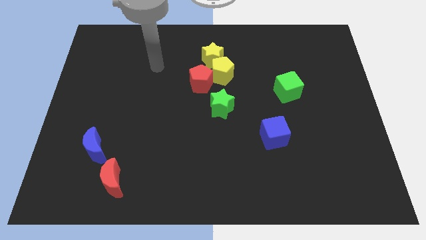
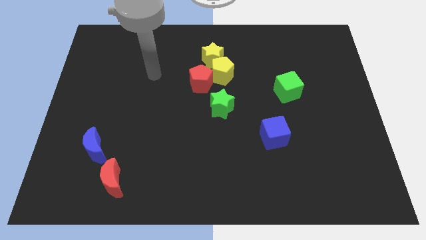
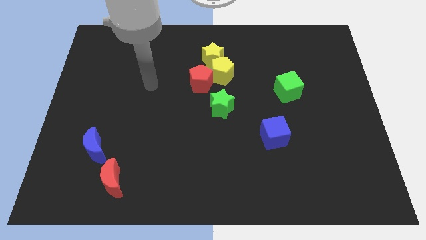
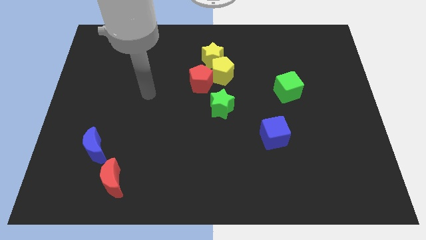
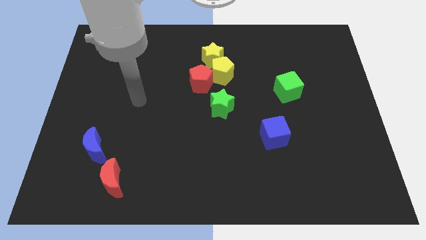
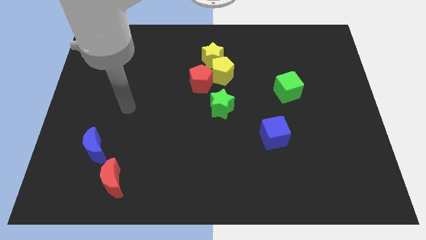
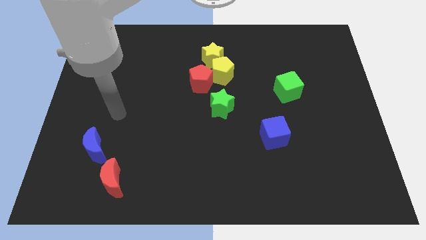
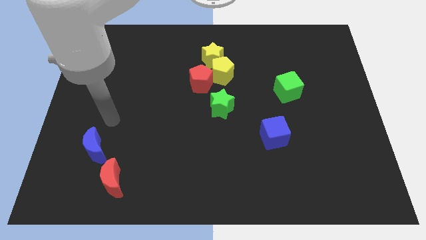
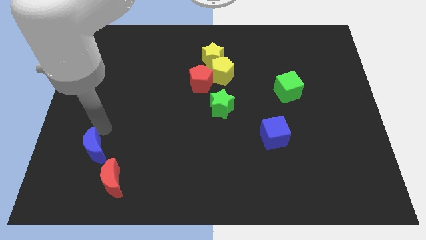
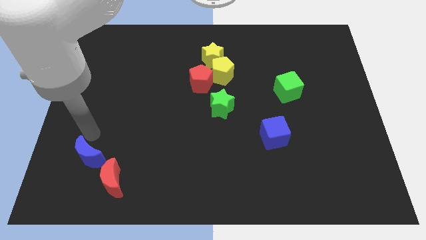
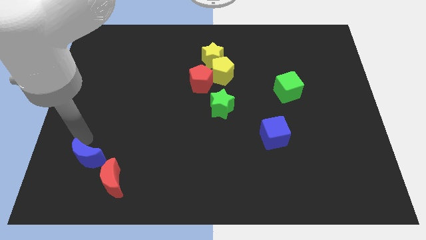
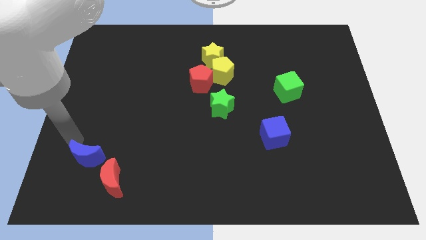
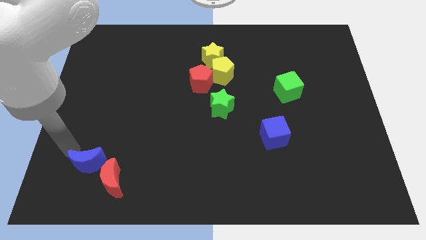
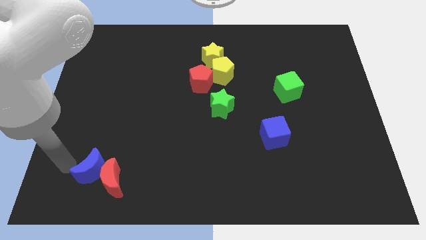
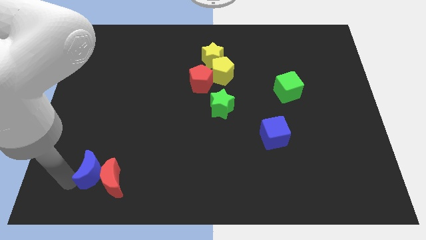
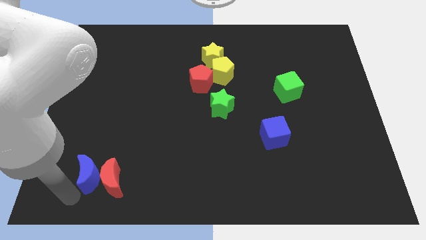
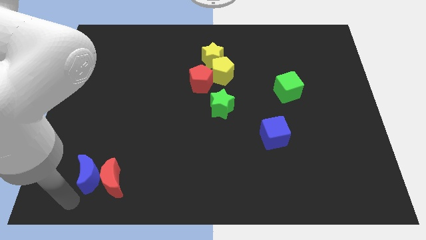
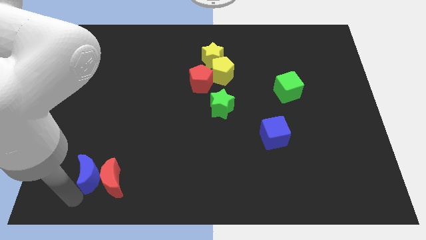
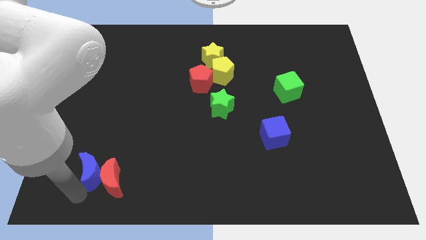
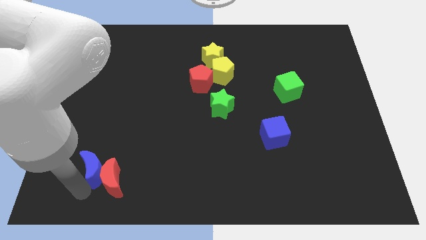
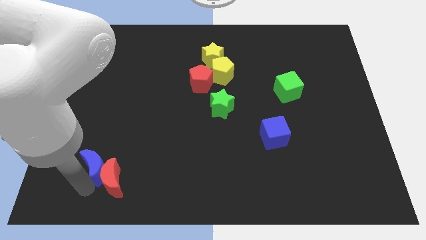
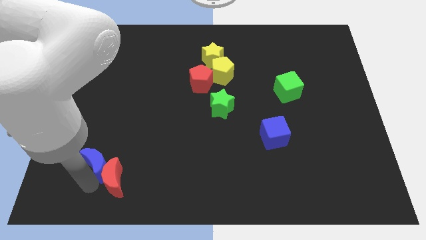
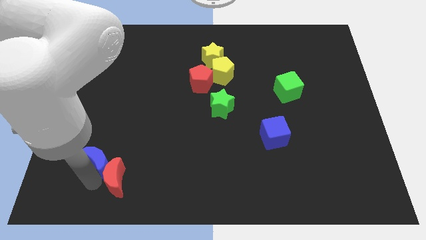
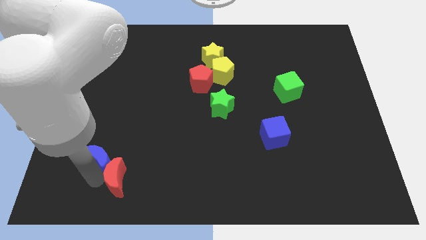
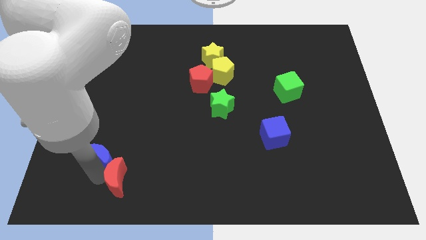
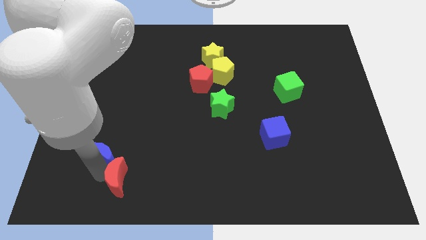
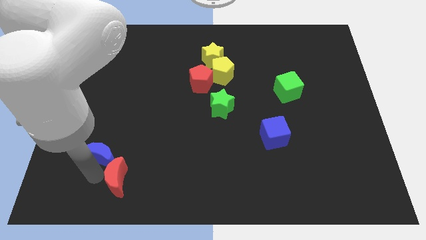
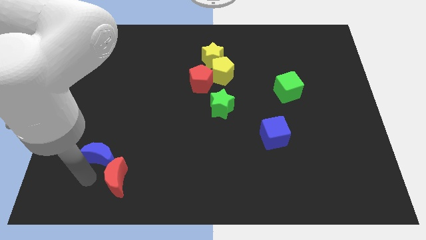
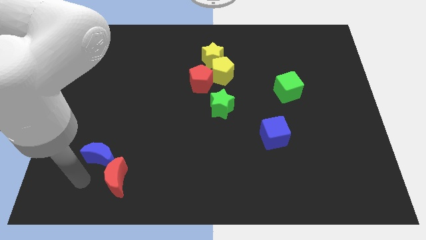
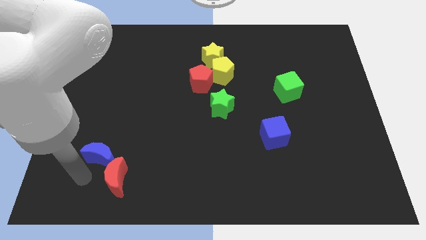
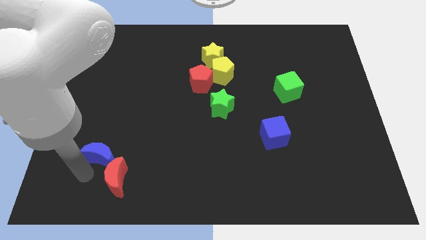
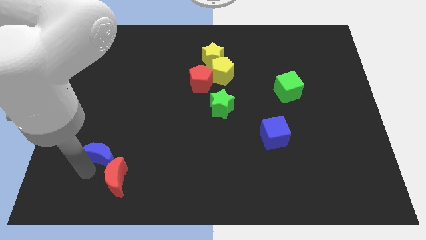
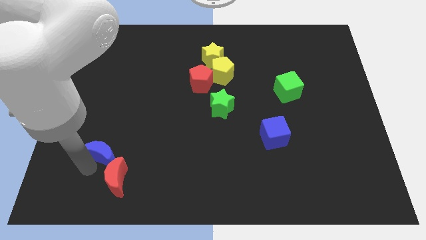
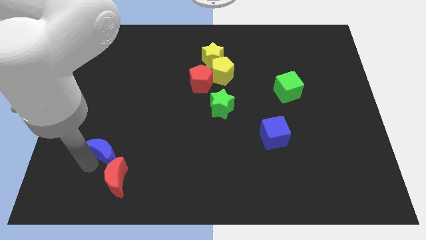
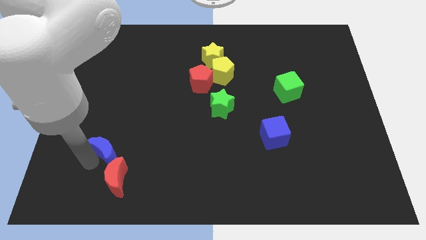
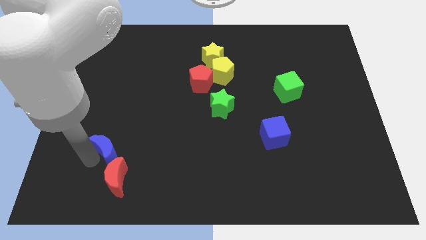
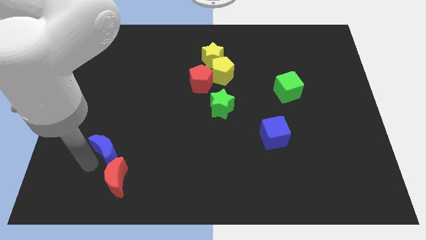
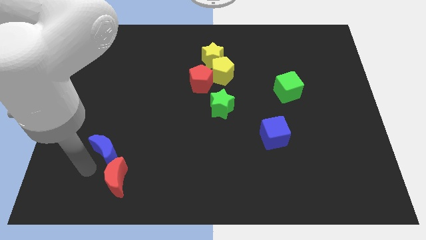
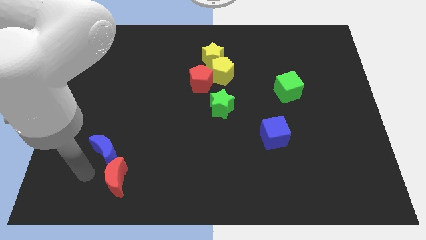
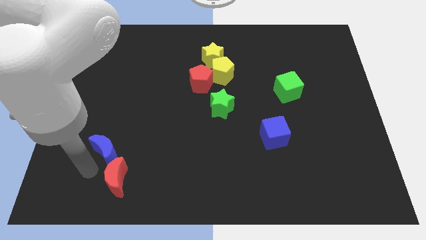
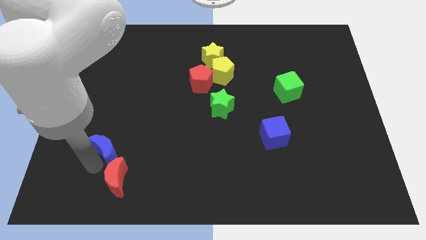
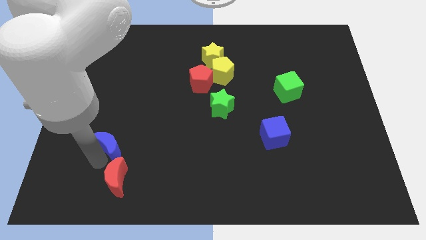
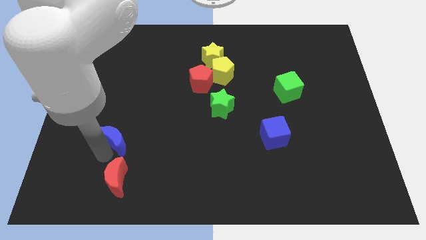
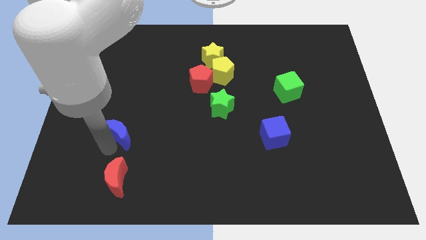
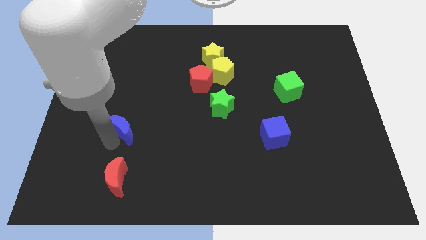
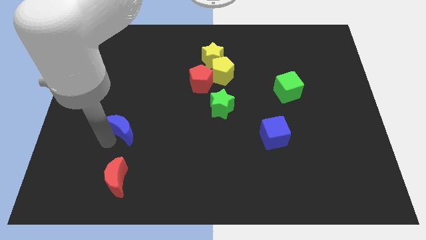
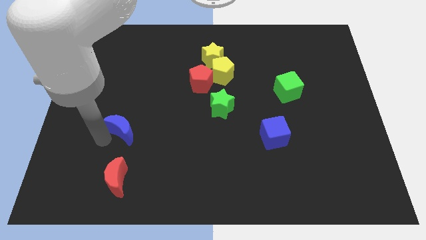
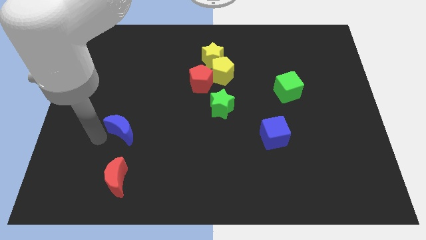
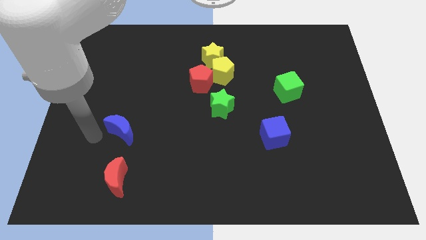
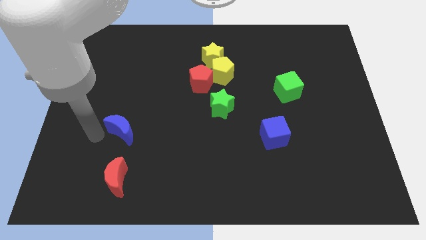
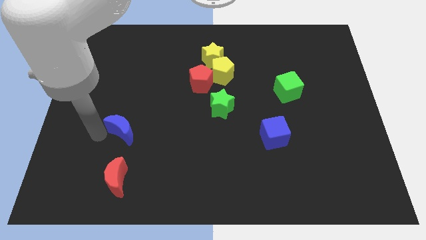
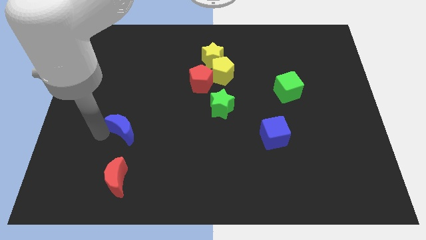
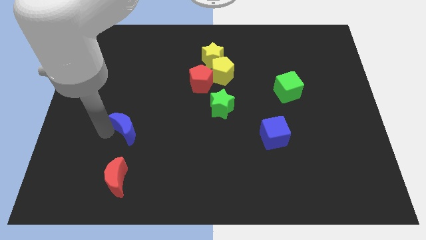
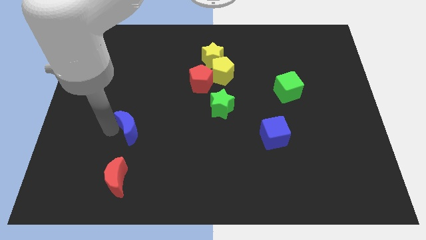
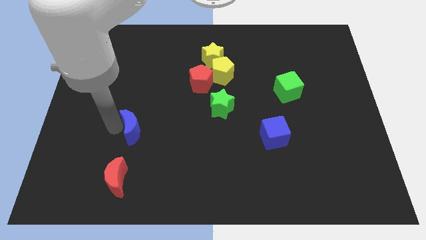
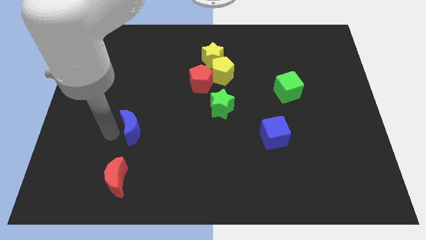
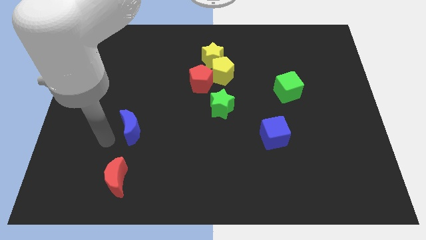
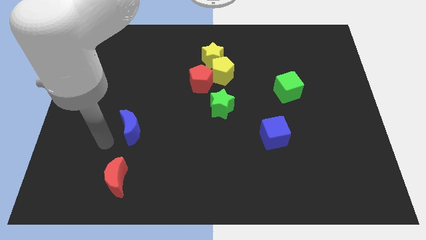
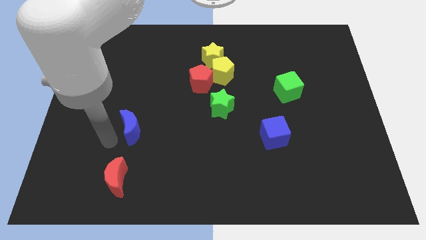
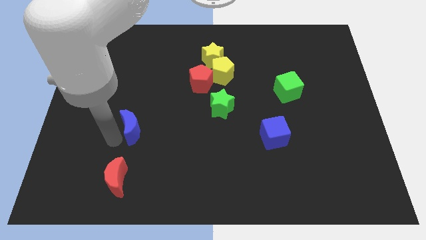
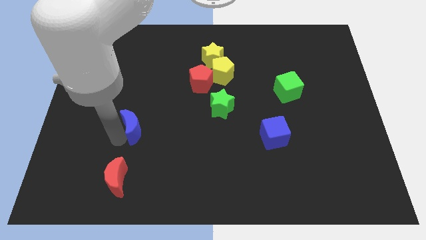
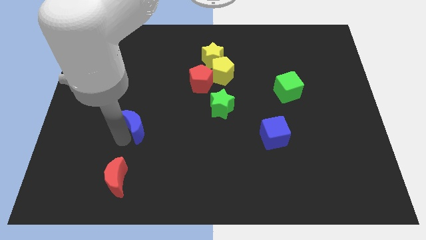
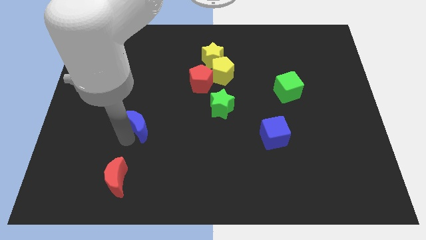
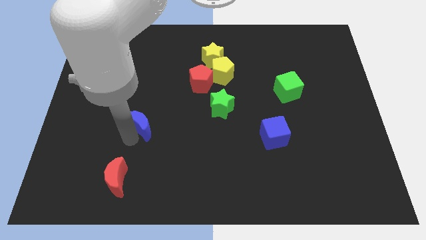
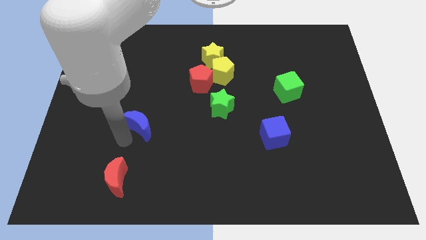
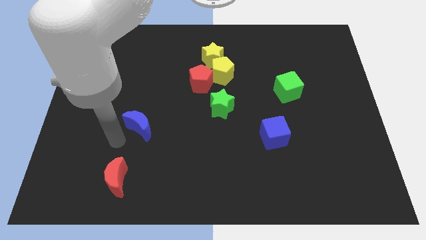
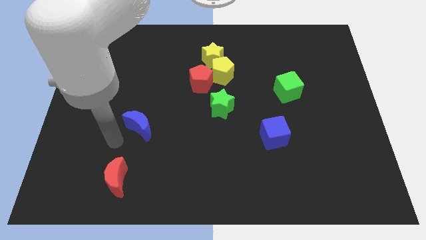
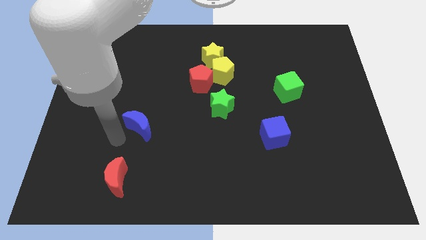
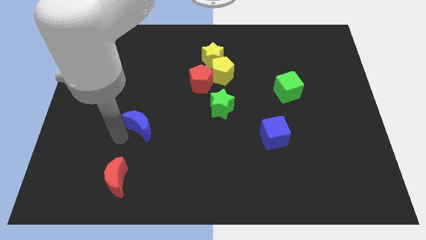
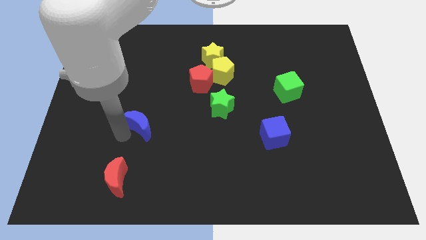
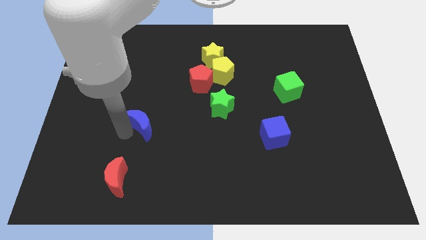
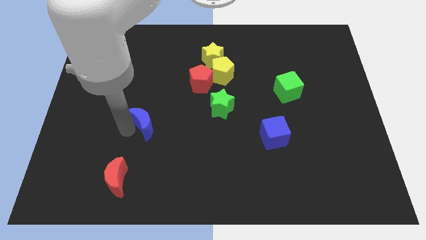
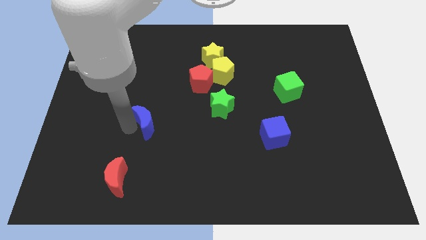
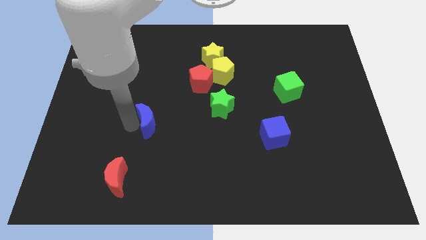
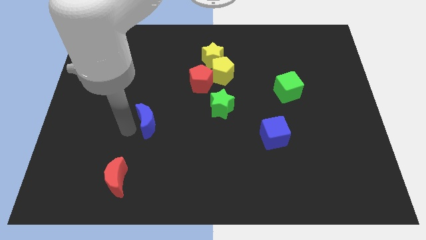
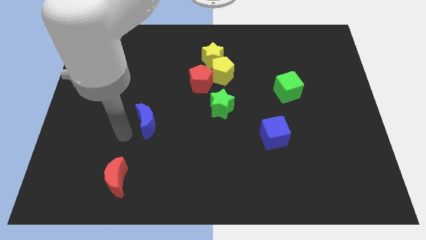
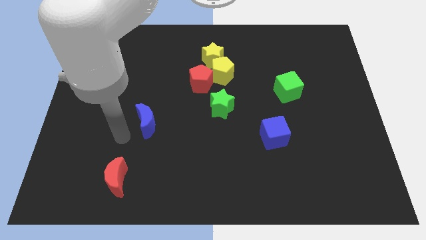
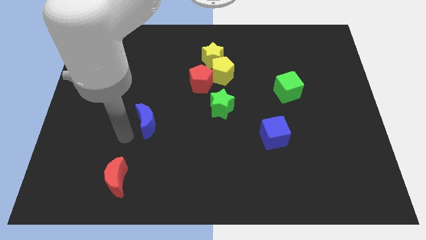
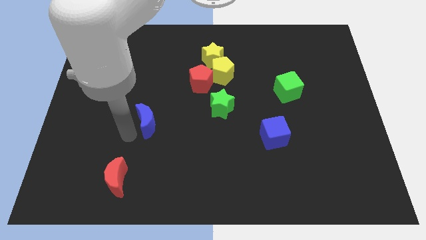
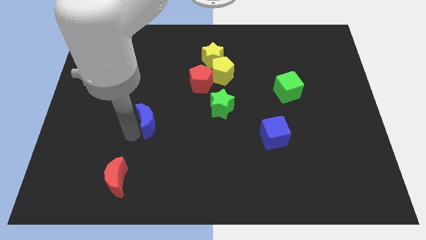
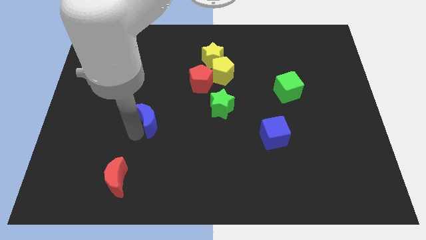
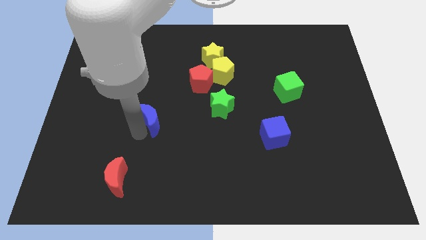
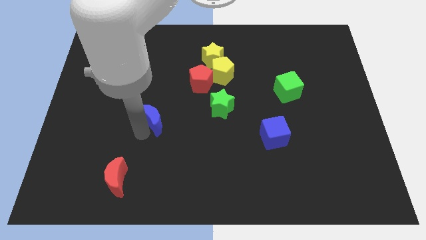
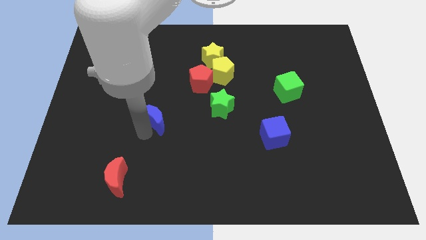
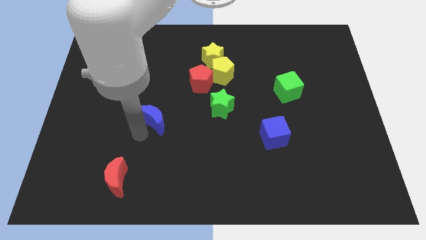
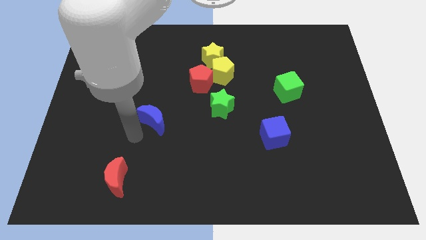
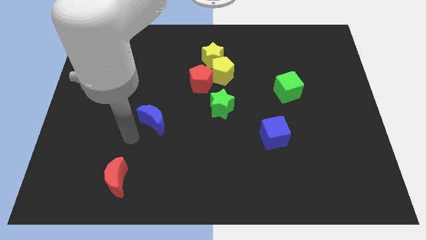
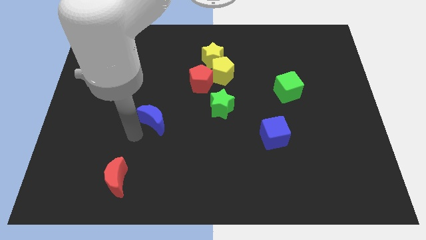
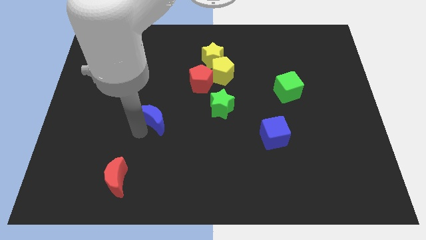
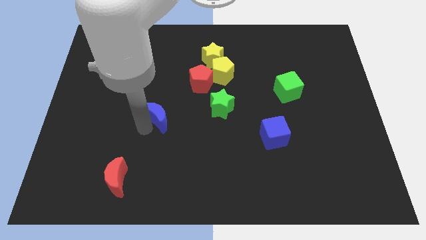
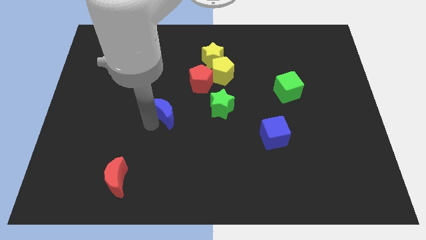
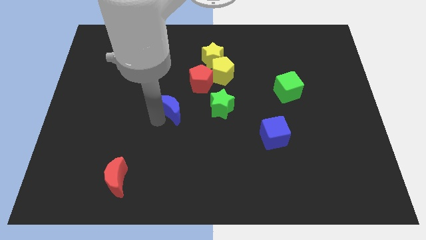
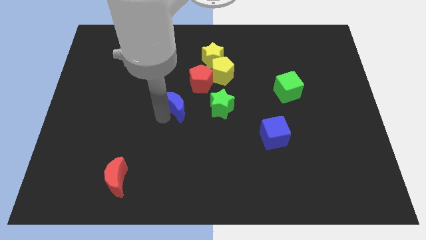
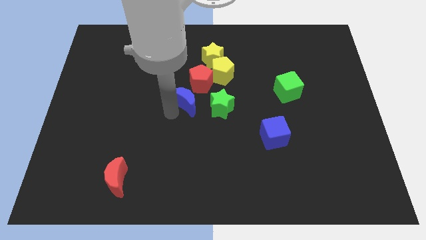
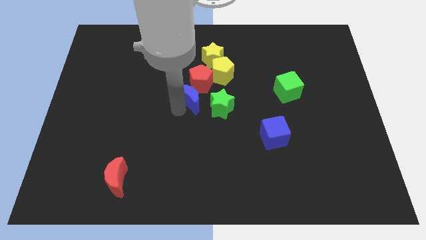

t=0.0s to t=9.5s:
push the blue moon next to the red pentagon
